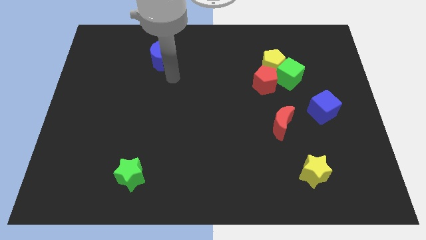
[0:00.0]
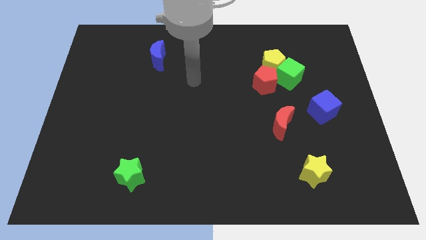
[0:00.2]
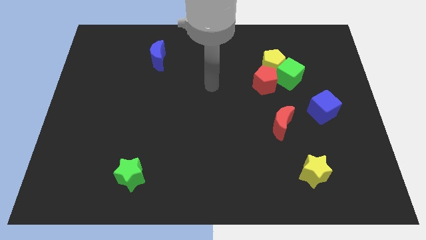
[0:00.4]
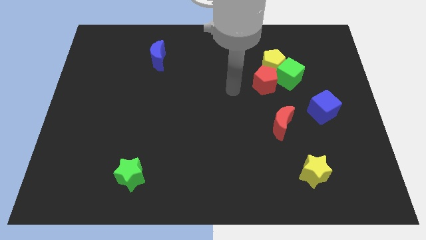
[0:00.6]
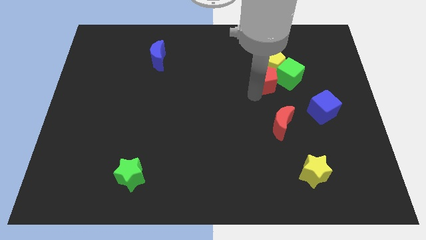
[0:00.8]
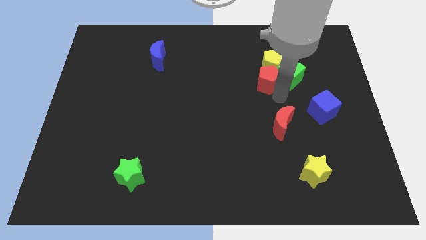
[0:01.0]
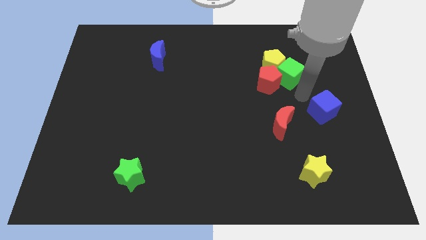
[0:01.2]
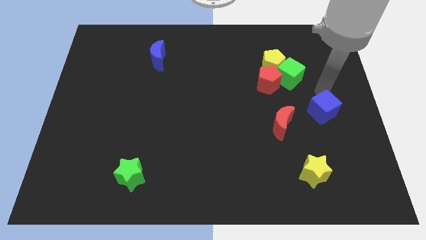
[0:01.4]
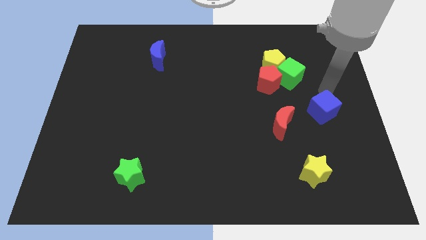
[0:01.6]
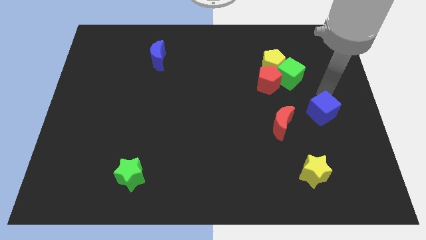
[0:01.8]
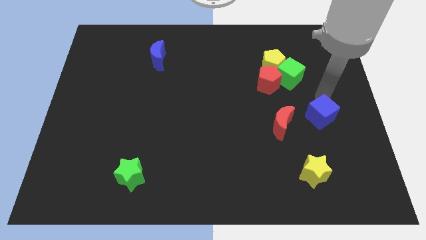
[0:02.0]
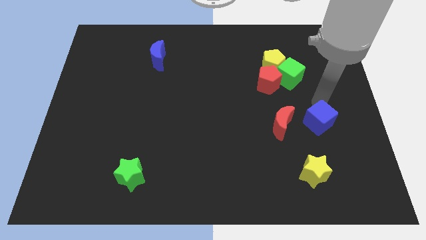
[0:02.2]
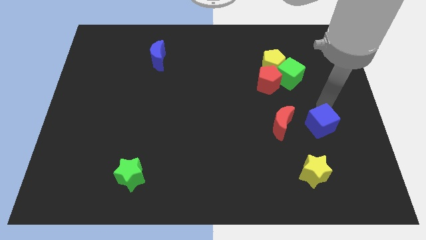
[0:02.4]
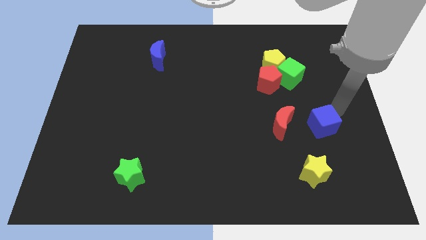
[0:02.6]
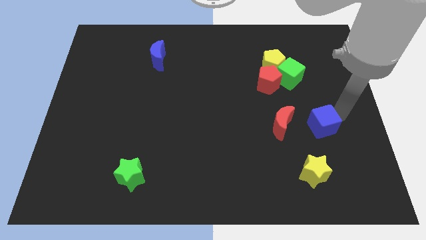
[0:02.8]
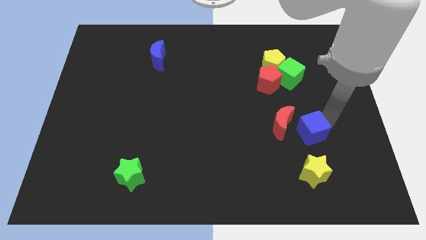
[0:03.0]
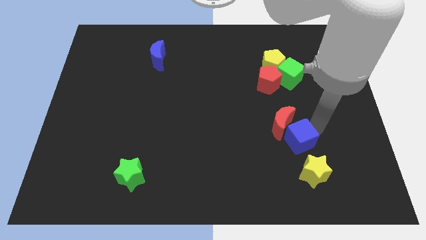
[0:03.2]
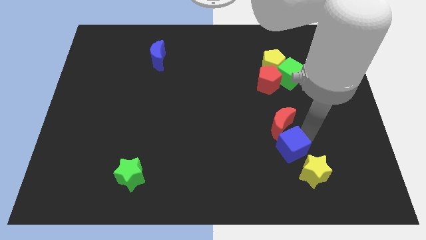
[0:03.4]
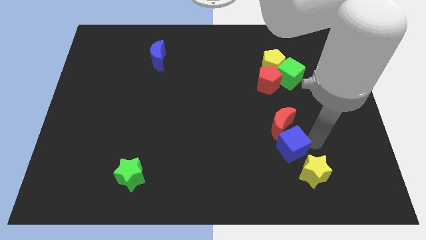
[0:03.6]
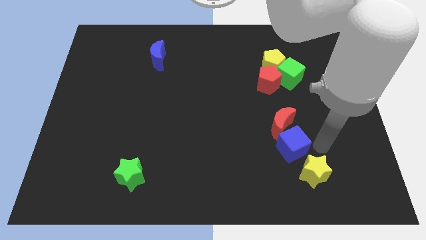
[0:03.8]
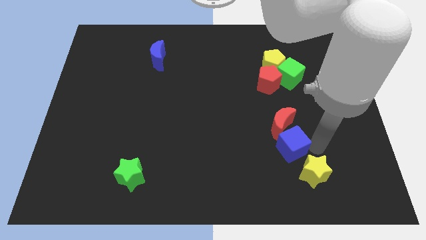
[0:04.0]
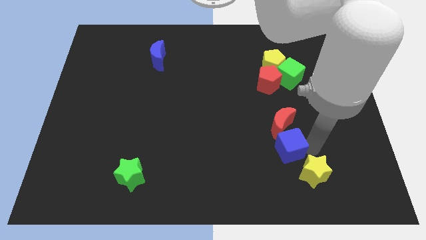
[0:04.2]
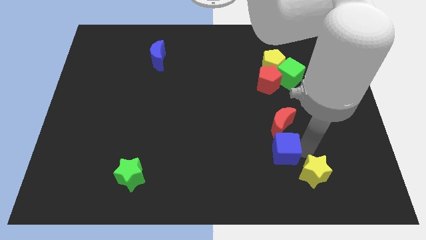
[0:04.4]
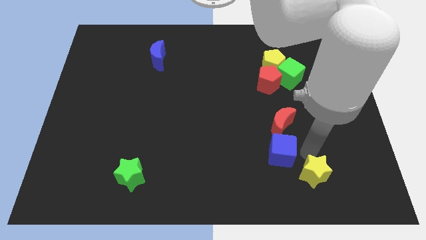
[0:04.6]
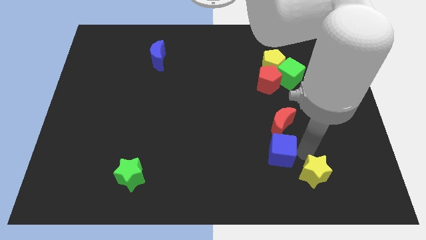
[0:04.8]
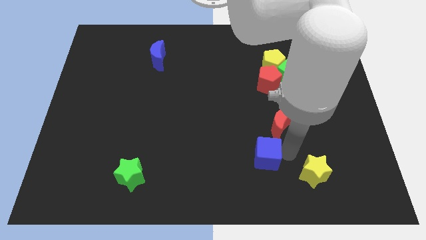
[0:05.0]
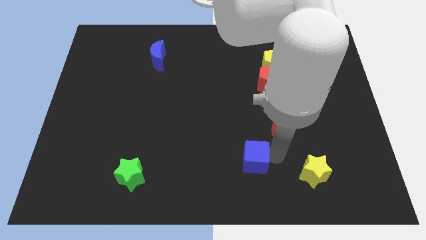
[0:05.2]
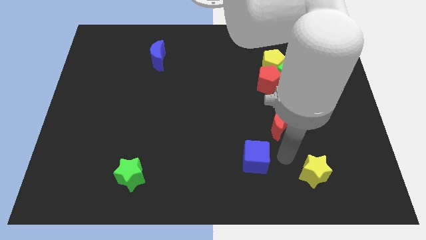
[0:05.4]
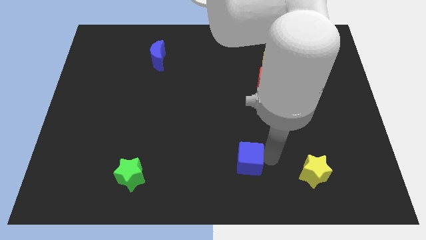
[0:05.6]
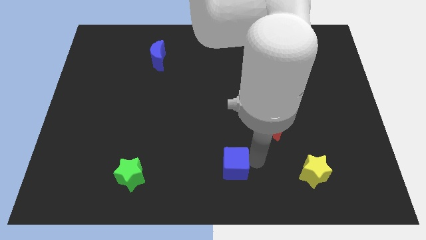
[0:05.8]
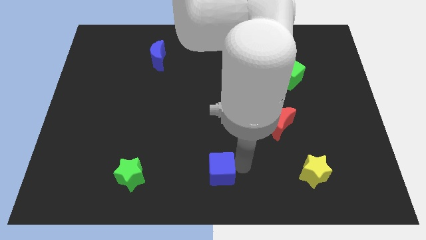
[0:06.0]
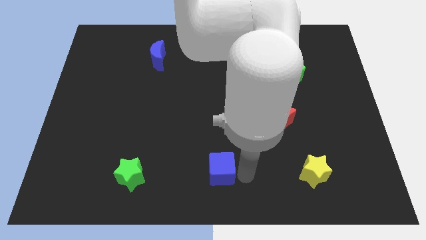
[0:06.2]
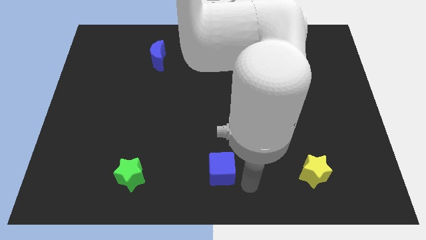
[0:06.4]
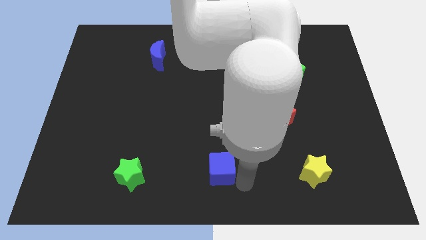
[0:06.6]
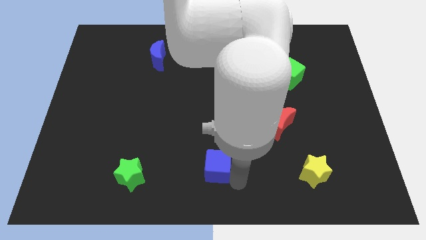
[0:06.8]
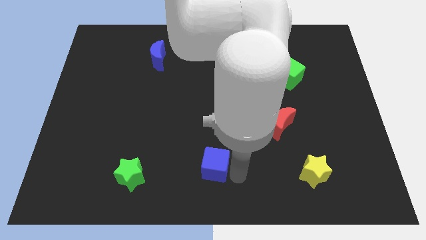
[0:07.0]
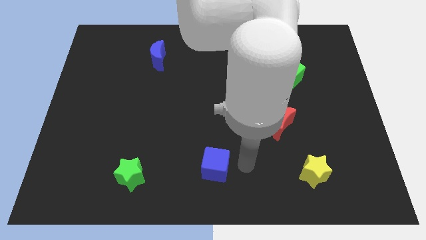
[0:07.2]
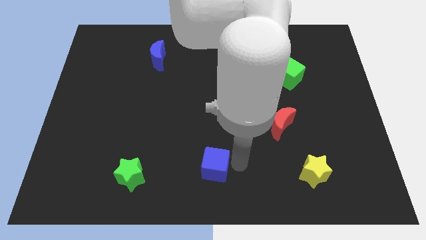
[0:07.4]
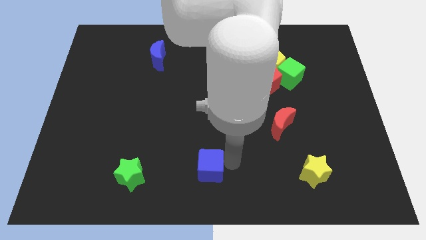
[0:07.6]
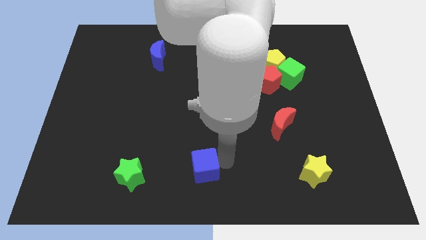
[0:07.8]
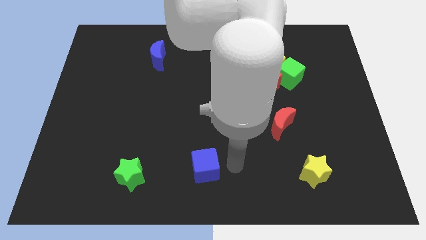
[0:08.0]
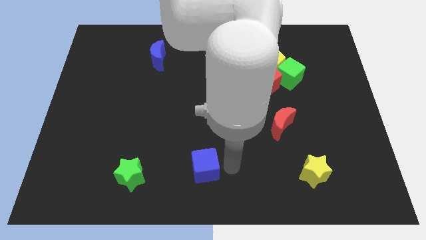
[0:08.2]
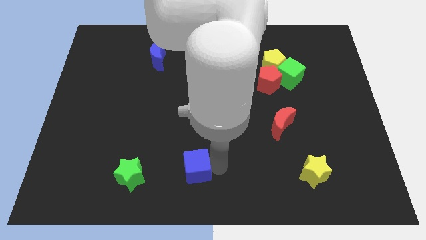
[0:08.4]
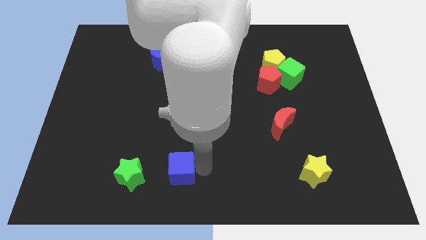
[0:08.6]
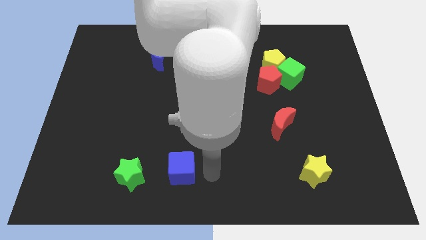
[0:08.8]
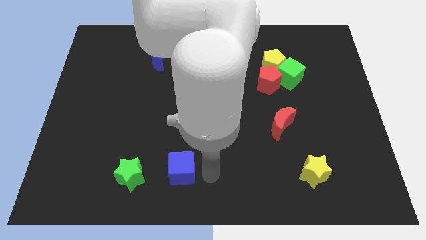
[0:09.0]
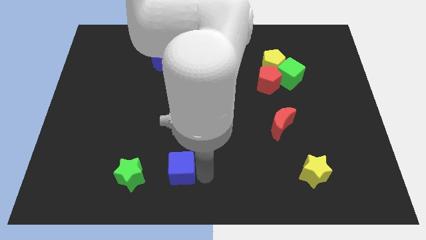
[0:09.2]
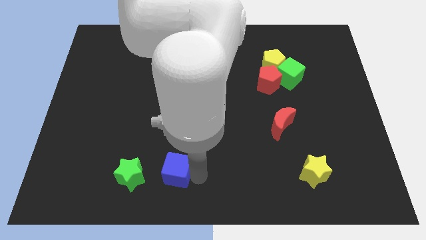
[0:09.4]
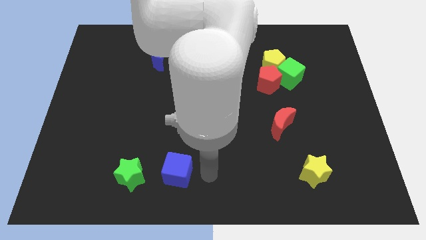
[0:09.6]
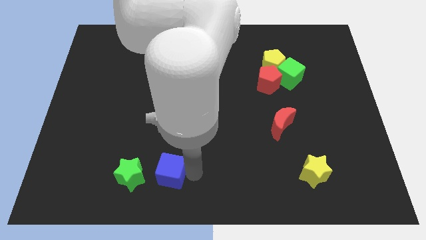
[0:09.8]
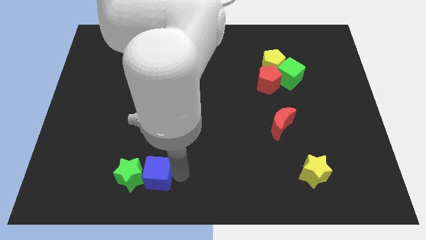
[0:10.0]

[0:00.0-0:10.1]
move the blue cube towards the green star

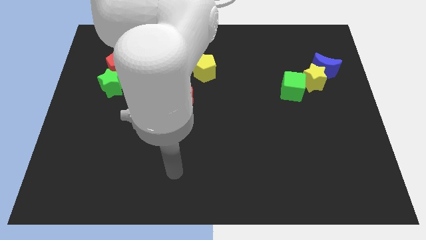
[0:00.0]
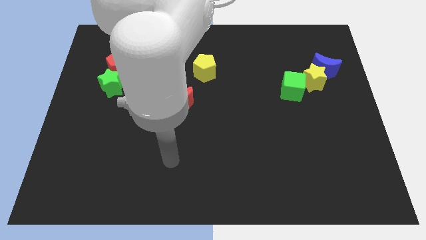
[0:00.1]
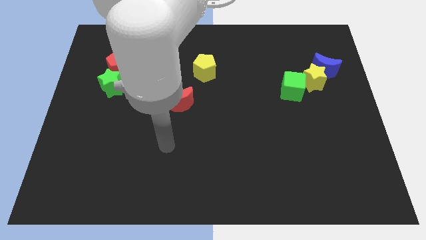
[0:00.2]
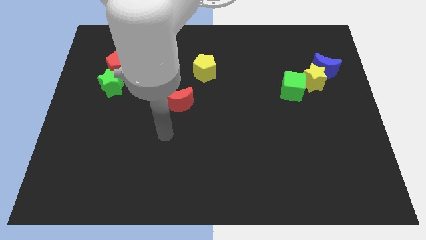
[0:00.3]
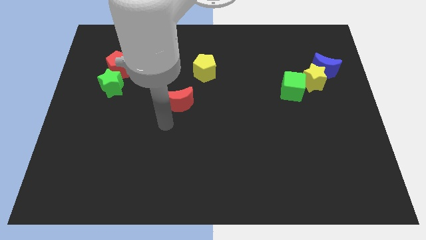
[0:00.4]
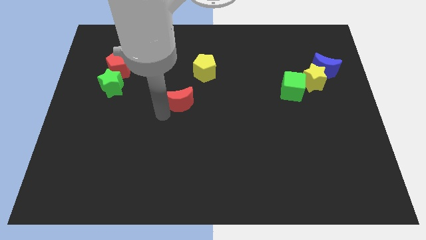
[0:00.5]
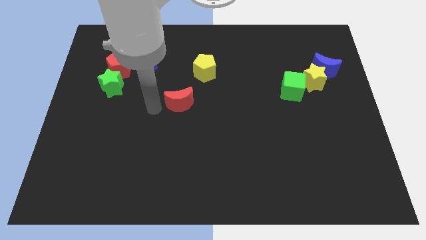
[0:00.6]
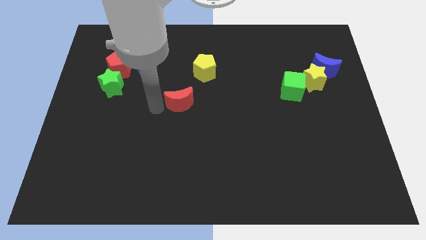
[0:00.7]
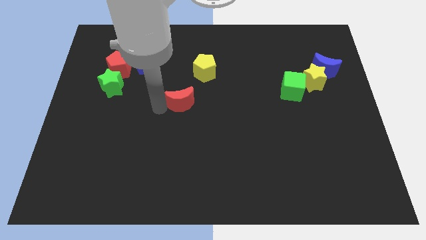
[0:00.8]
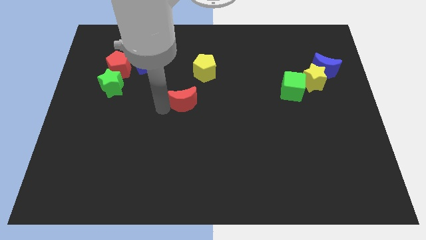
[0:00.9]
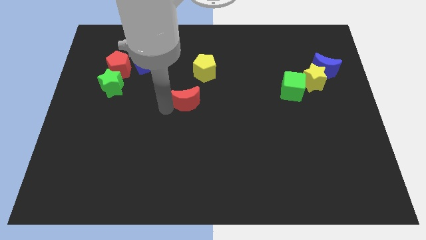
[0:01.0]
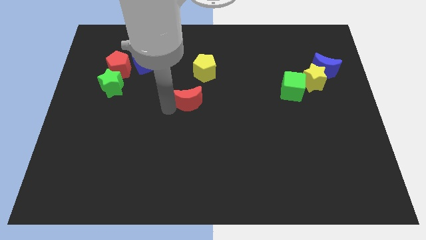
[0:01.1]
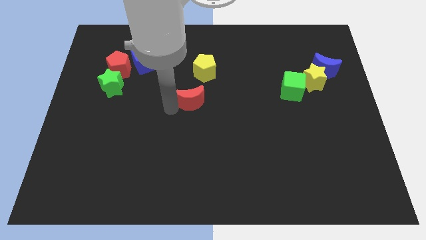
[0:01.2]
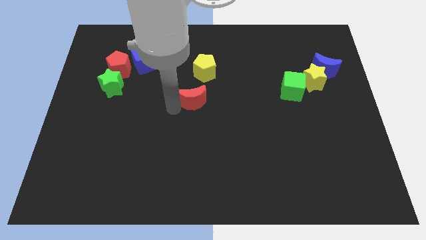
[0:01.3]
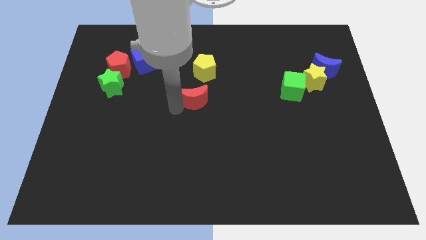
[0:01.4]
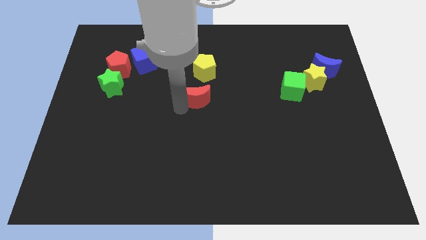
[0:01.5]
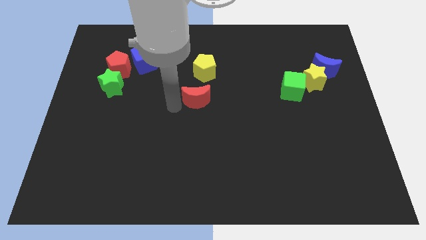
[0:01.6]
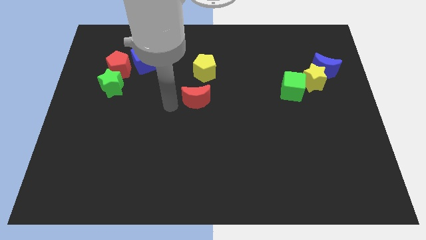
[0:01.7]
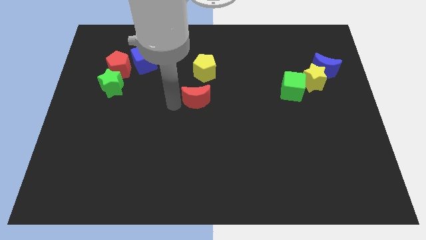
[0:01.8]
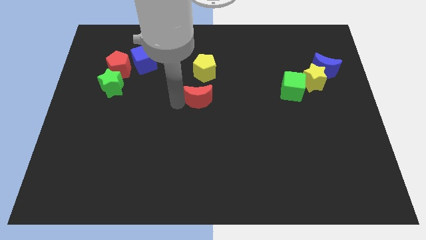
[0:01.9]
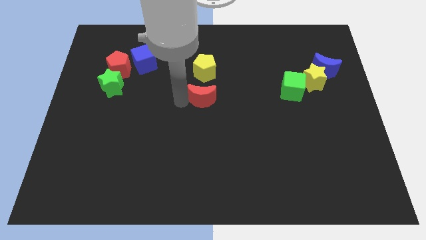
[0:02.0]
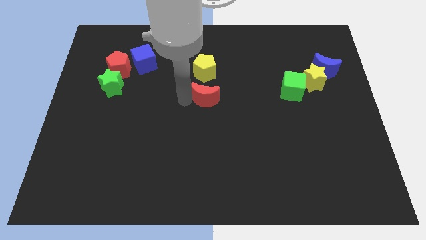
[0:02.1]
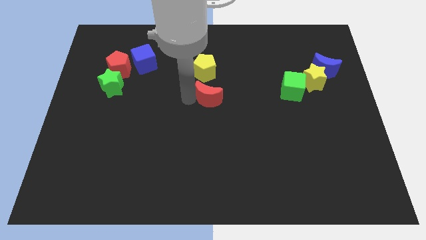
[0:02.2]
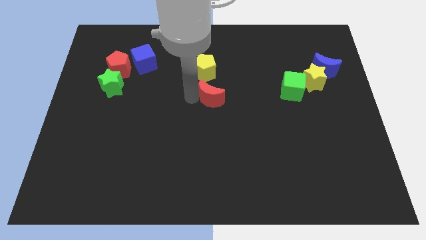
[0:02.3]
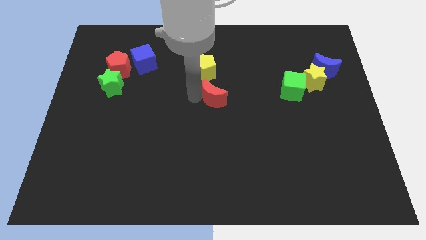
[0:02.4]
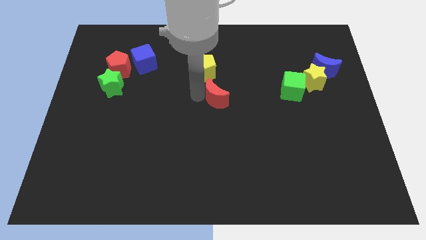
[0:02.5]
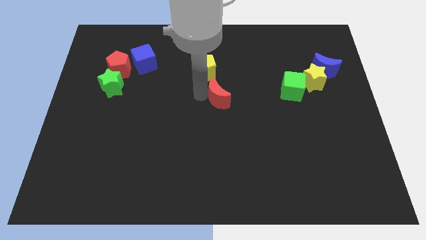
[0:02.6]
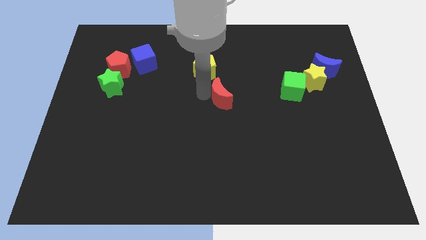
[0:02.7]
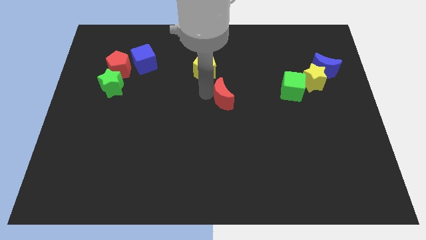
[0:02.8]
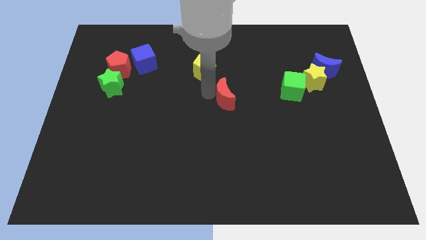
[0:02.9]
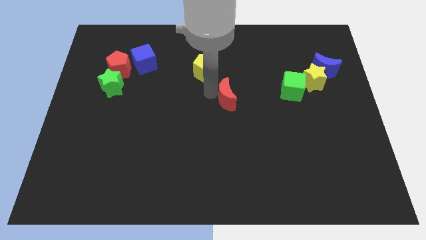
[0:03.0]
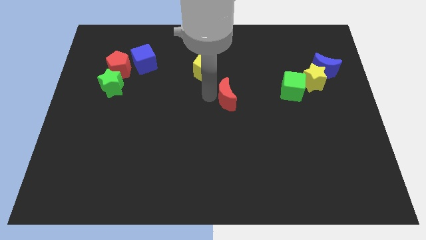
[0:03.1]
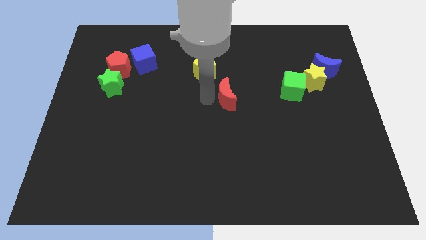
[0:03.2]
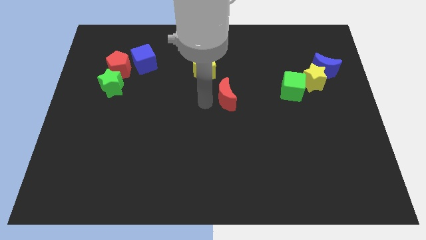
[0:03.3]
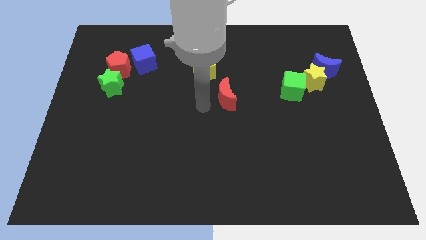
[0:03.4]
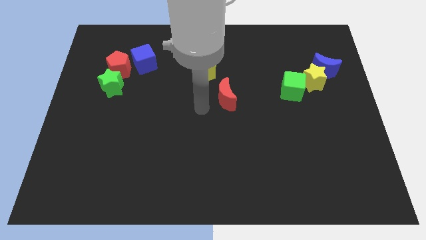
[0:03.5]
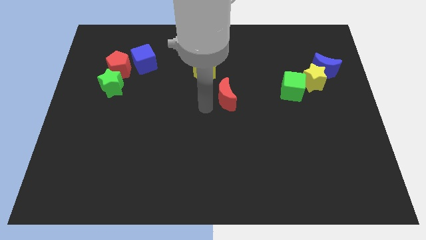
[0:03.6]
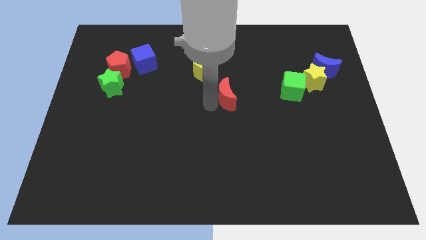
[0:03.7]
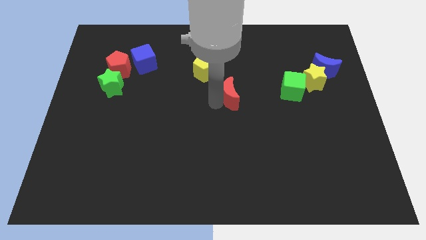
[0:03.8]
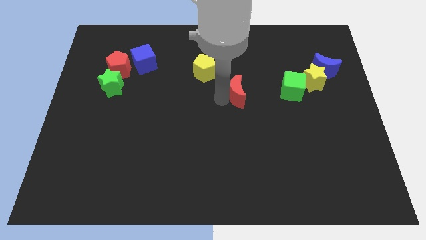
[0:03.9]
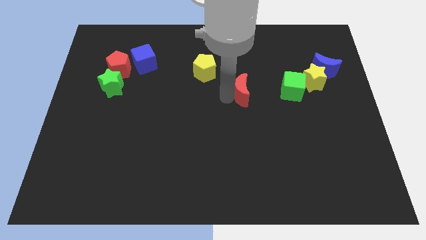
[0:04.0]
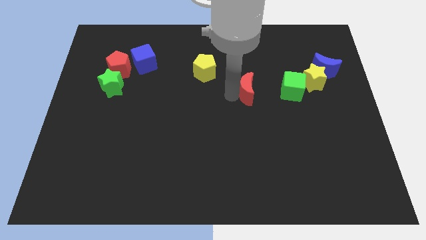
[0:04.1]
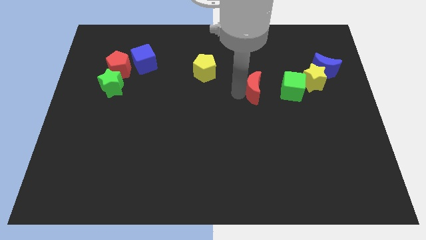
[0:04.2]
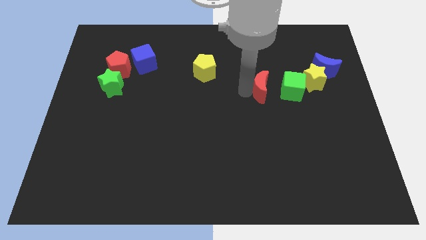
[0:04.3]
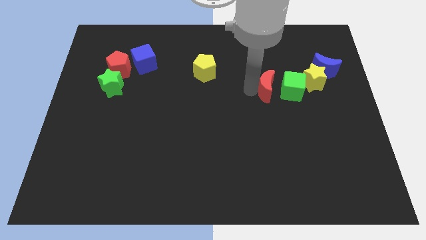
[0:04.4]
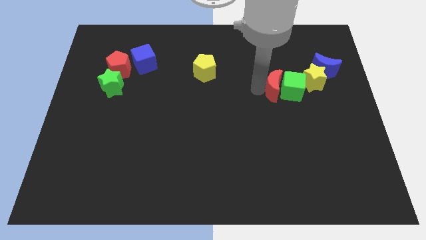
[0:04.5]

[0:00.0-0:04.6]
push the red moon next to the green cube
